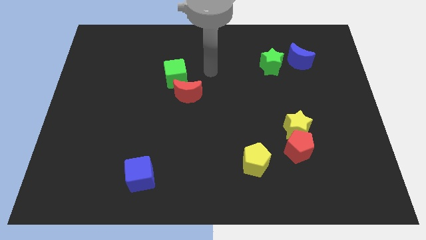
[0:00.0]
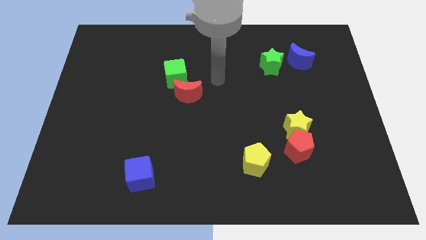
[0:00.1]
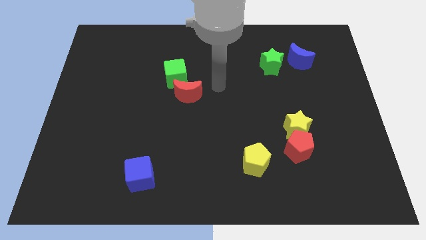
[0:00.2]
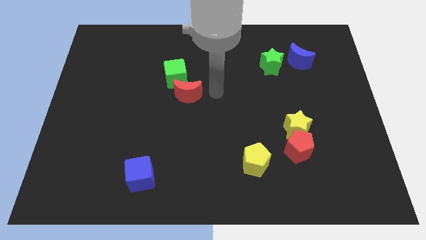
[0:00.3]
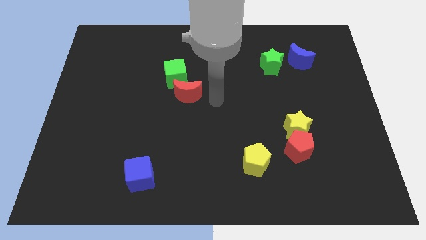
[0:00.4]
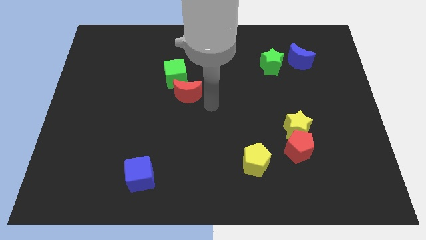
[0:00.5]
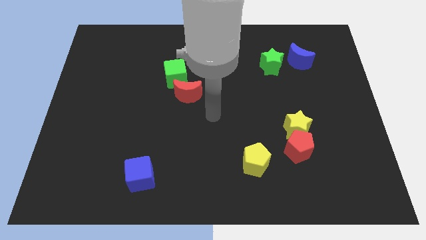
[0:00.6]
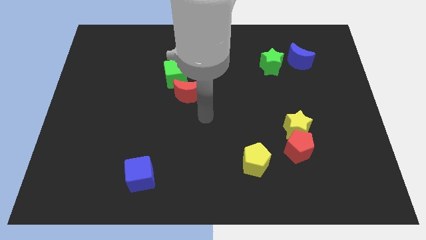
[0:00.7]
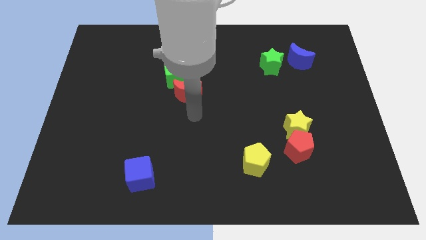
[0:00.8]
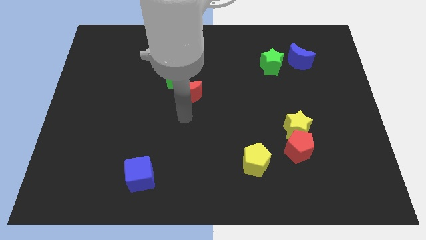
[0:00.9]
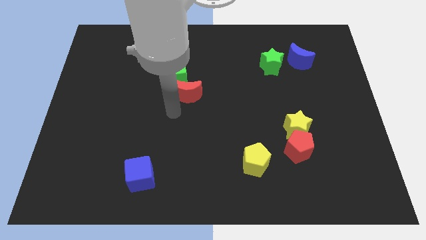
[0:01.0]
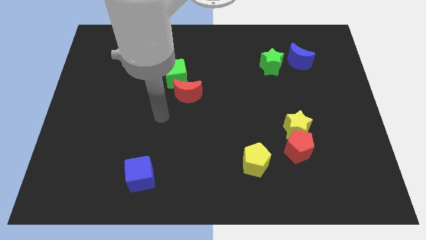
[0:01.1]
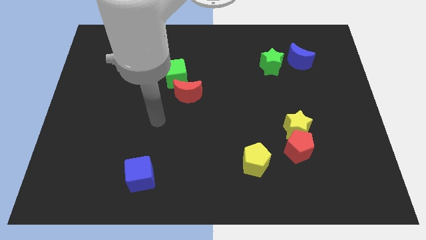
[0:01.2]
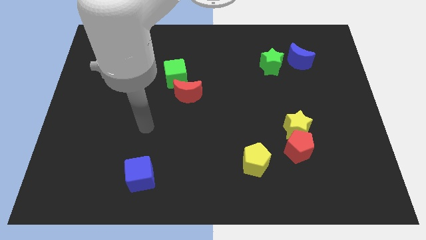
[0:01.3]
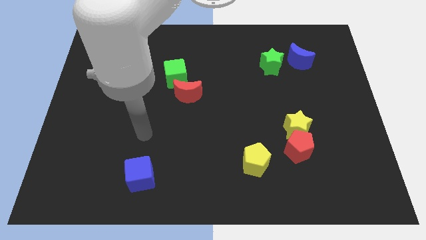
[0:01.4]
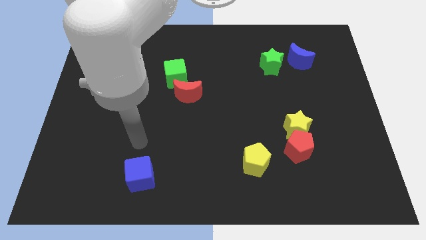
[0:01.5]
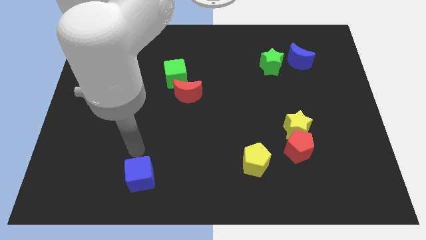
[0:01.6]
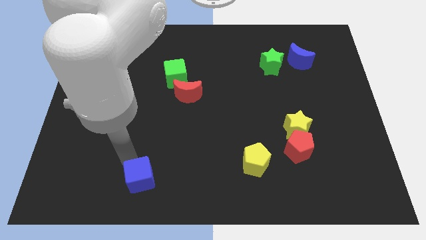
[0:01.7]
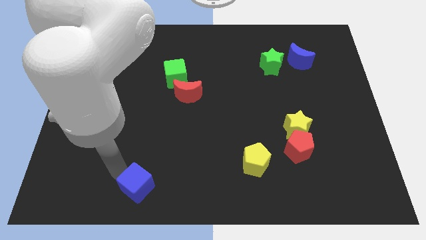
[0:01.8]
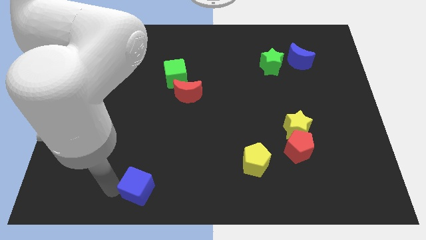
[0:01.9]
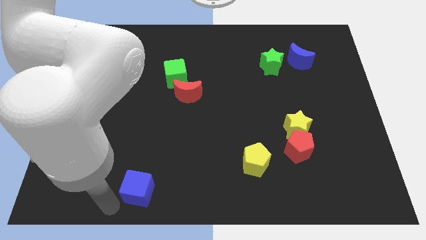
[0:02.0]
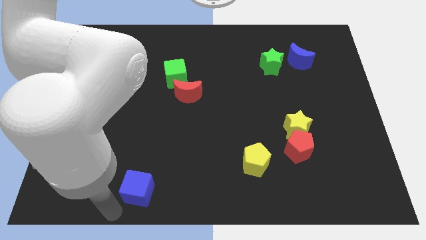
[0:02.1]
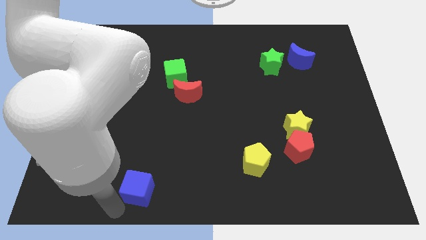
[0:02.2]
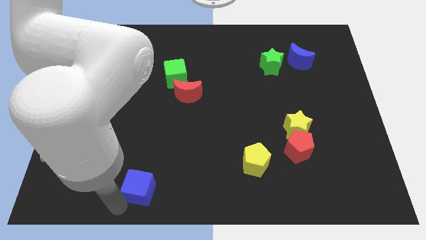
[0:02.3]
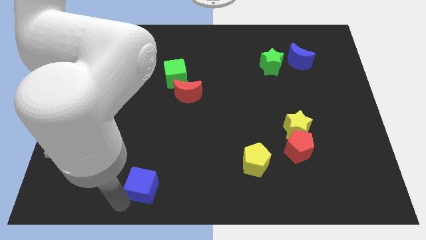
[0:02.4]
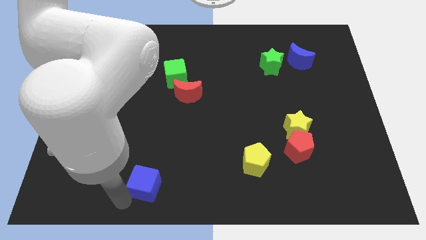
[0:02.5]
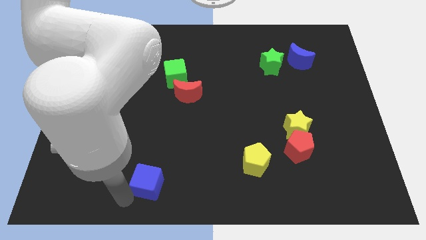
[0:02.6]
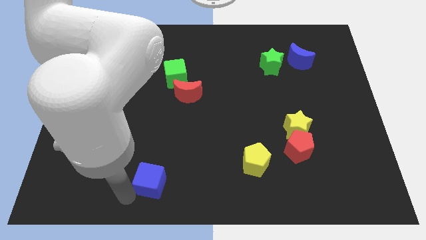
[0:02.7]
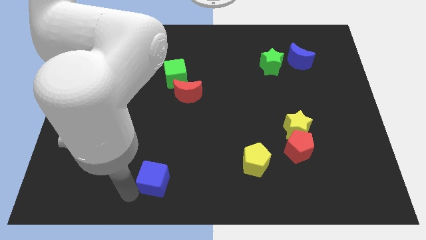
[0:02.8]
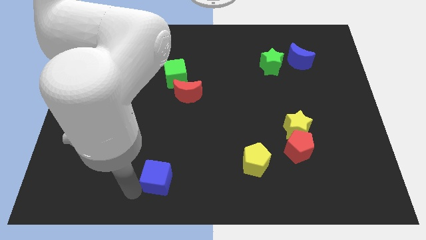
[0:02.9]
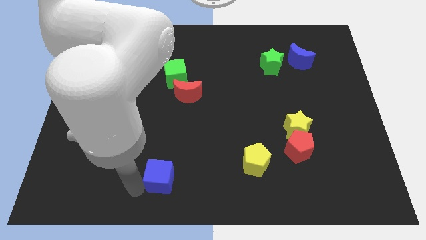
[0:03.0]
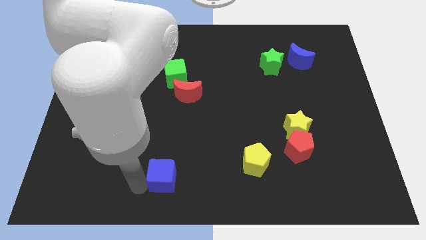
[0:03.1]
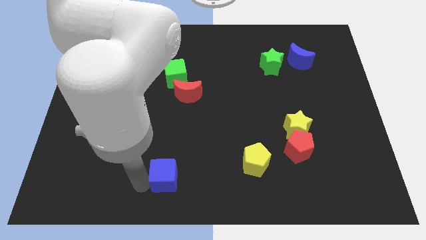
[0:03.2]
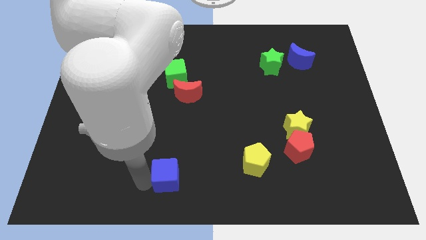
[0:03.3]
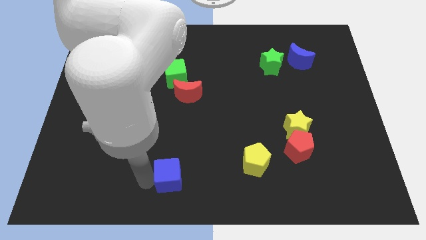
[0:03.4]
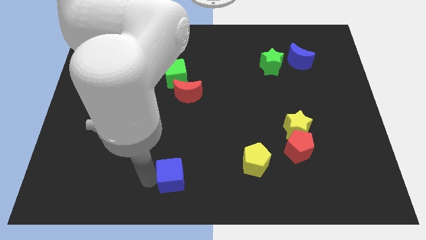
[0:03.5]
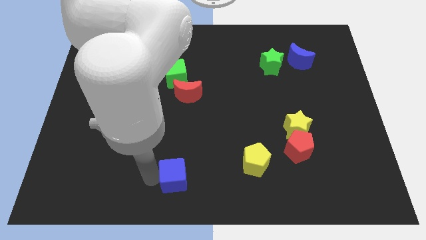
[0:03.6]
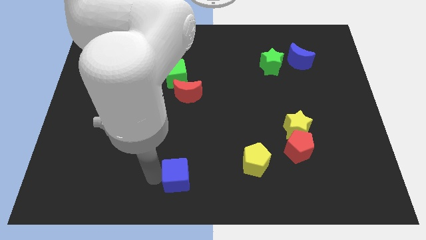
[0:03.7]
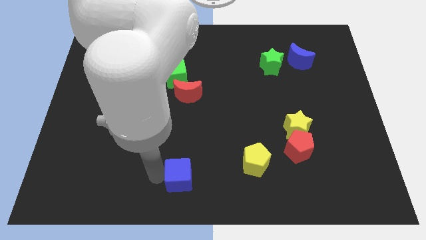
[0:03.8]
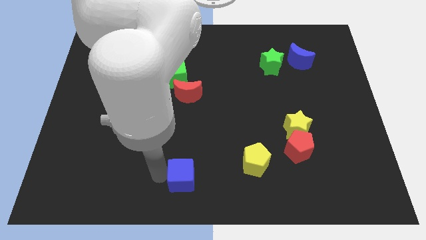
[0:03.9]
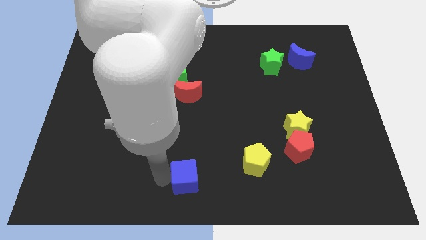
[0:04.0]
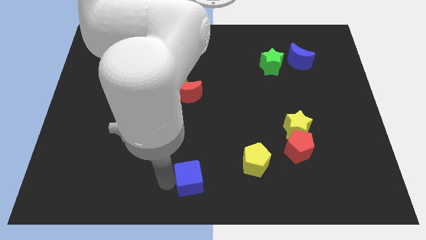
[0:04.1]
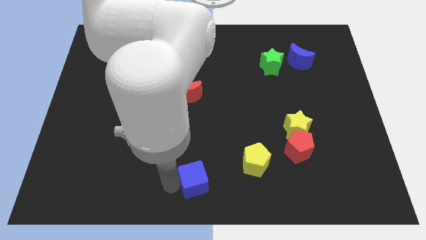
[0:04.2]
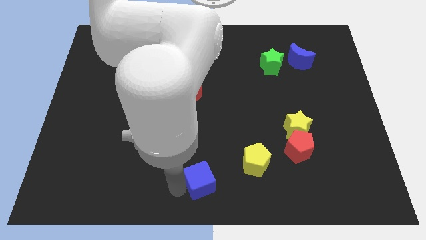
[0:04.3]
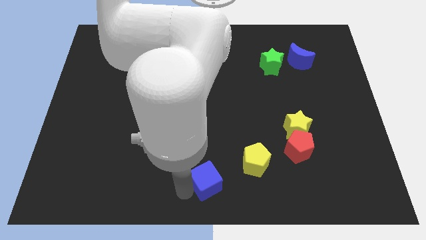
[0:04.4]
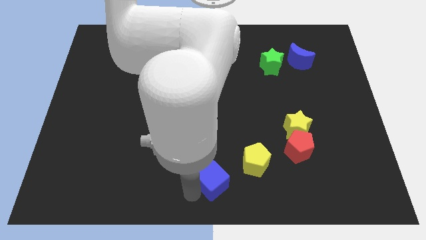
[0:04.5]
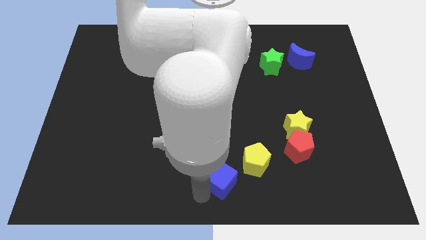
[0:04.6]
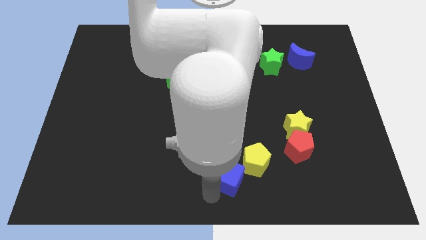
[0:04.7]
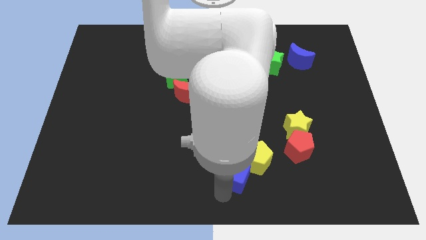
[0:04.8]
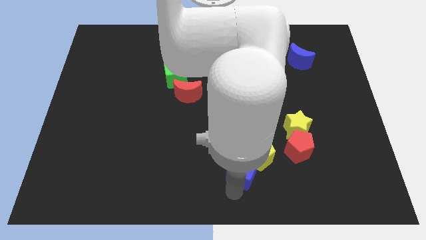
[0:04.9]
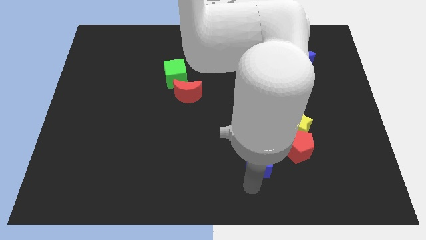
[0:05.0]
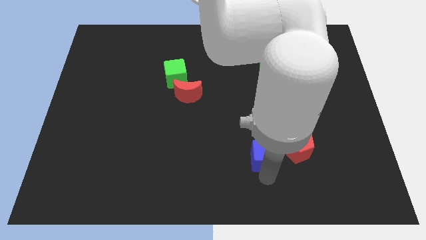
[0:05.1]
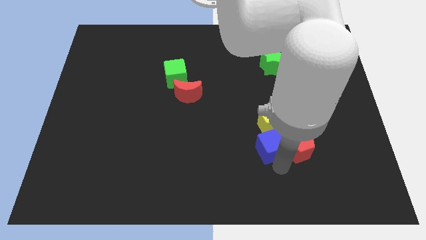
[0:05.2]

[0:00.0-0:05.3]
move the blue cube to the red pentagon

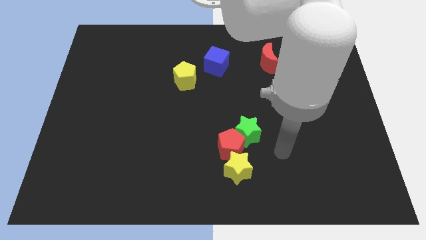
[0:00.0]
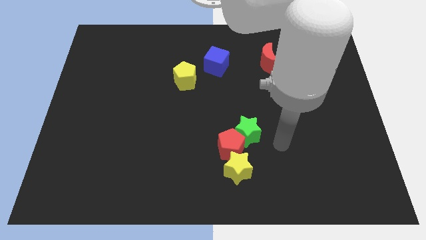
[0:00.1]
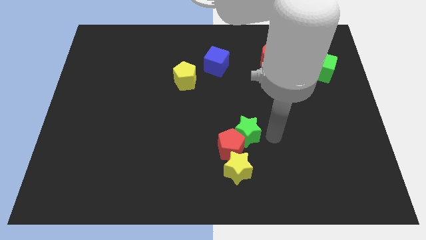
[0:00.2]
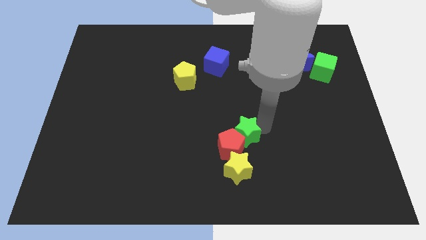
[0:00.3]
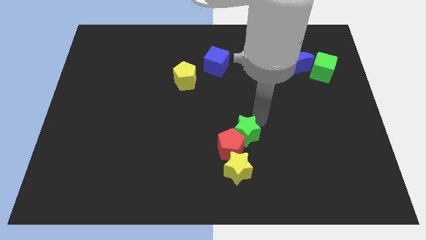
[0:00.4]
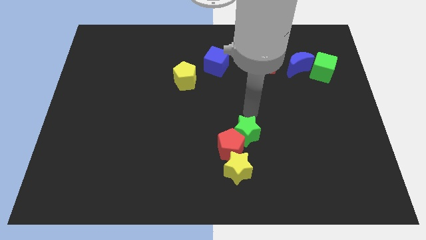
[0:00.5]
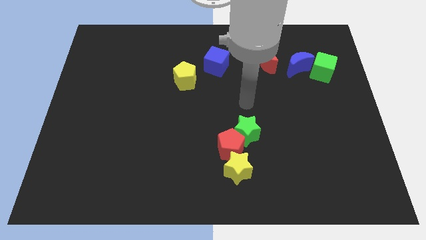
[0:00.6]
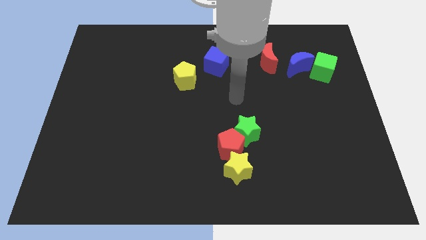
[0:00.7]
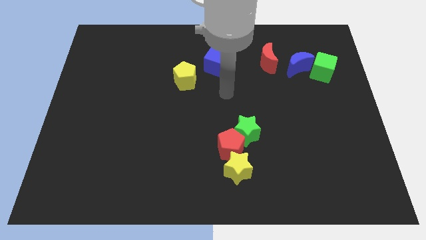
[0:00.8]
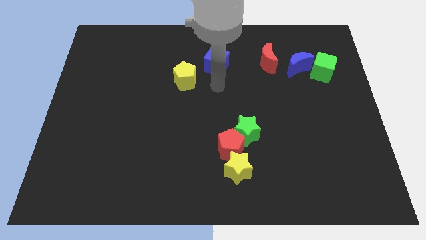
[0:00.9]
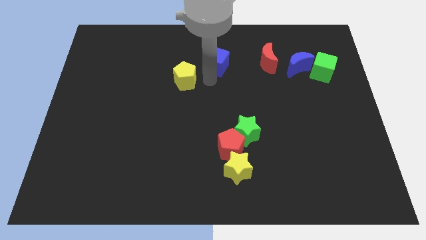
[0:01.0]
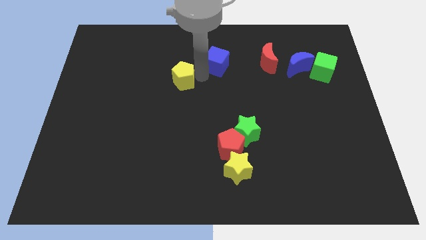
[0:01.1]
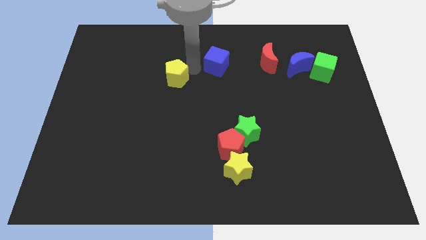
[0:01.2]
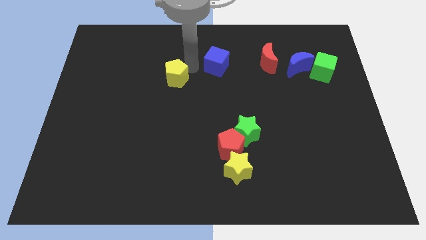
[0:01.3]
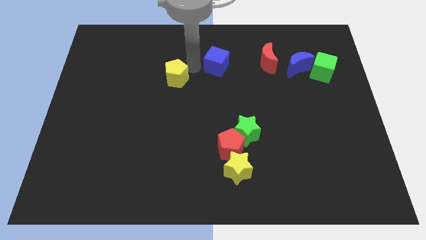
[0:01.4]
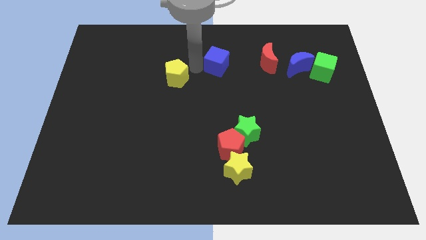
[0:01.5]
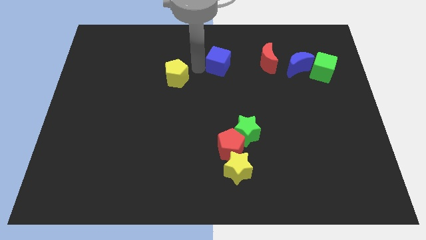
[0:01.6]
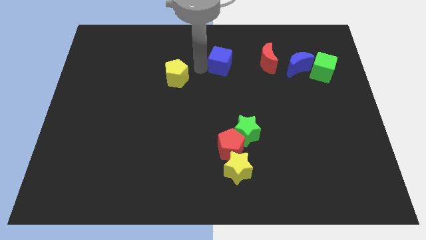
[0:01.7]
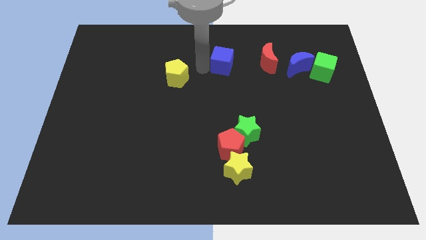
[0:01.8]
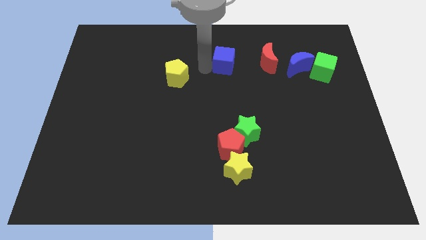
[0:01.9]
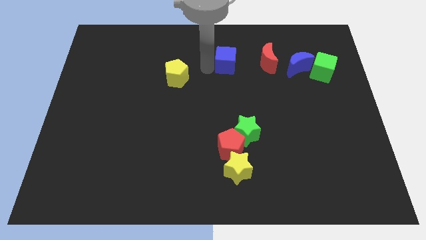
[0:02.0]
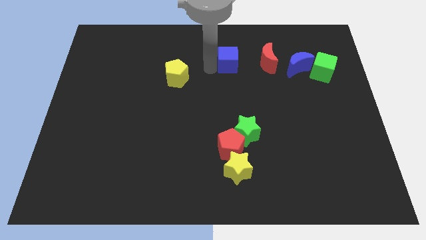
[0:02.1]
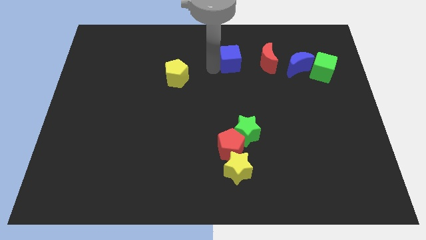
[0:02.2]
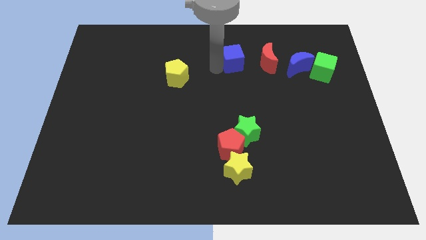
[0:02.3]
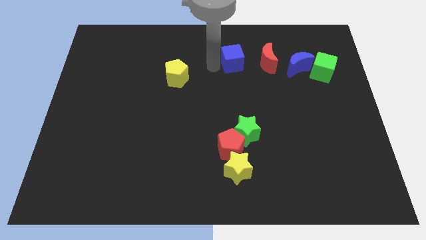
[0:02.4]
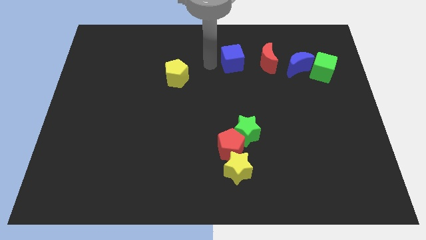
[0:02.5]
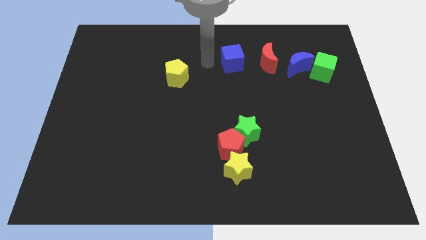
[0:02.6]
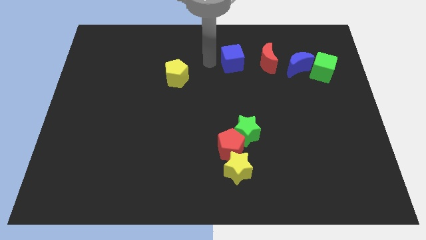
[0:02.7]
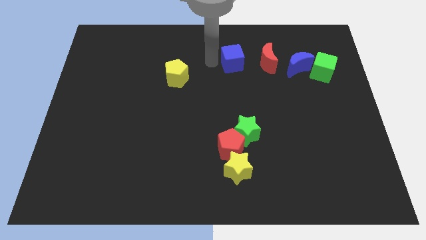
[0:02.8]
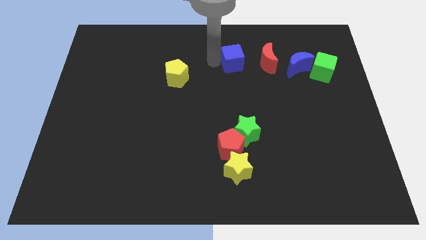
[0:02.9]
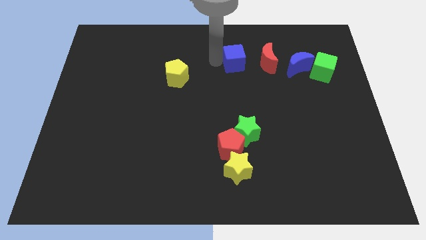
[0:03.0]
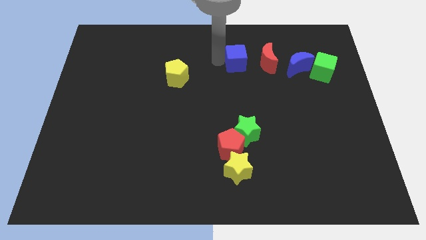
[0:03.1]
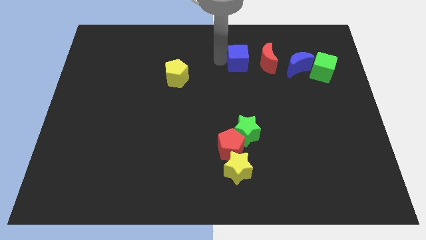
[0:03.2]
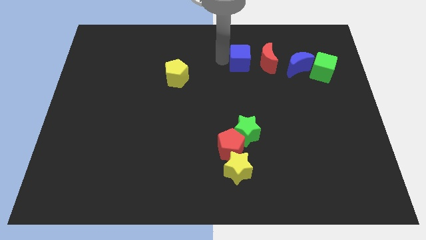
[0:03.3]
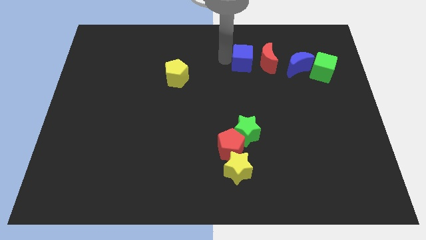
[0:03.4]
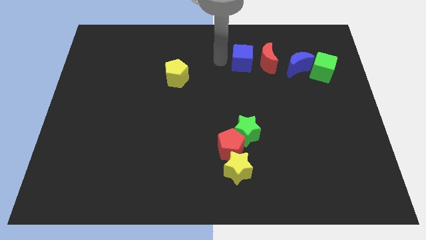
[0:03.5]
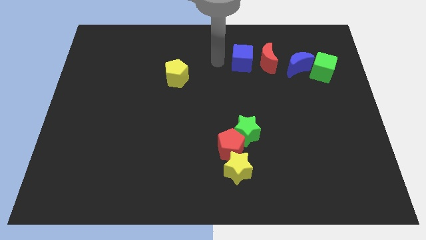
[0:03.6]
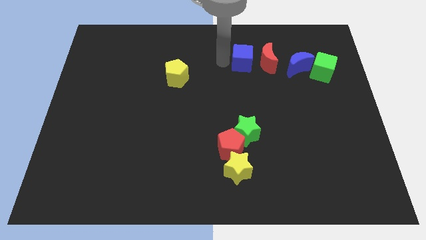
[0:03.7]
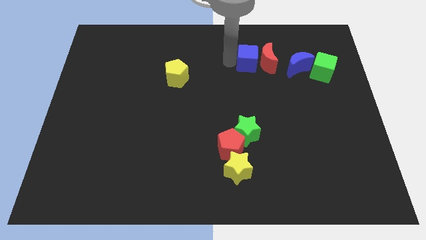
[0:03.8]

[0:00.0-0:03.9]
move the blue cube close to the red moon
